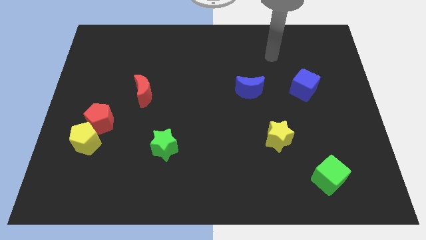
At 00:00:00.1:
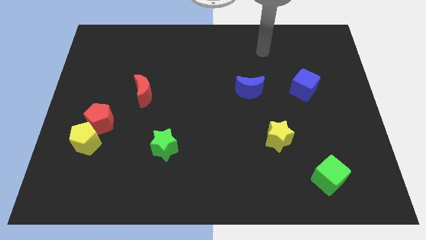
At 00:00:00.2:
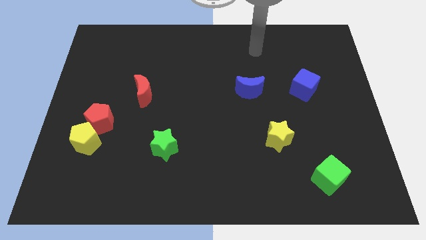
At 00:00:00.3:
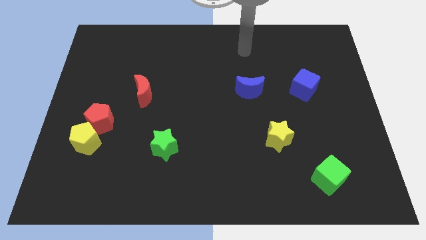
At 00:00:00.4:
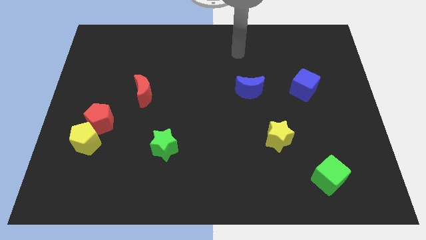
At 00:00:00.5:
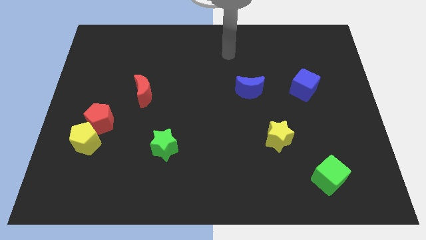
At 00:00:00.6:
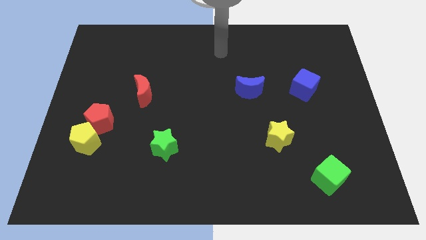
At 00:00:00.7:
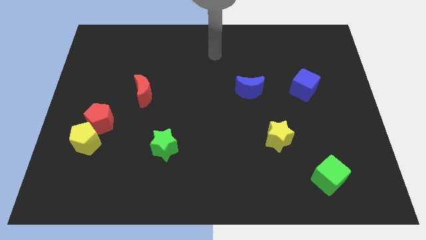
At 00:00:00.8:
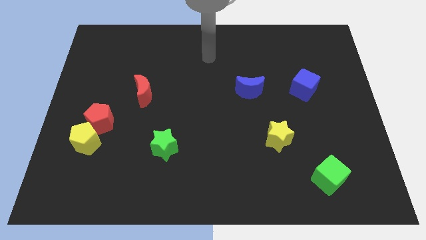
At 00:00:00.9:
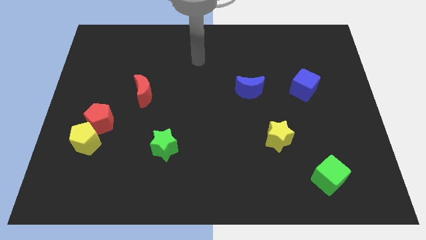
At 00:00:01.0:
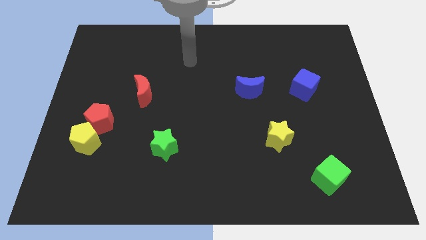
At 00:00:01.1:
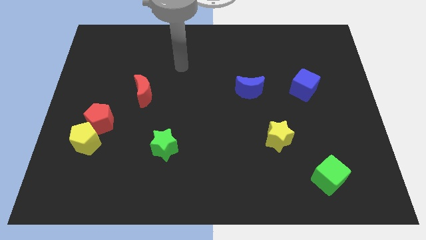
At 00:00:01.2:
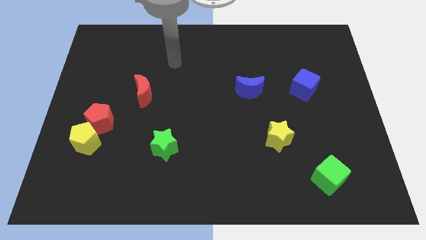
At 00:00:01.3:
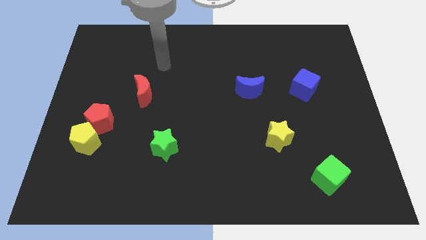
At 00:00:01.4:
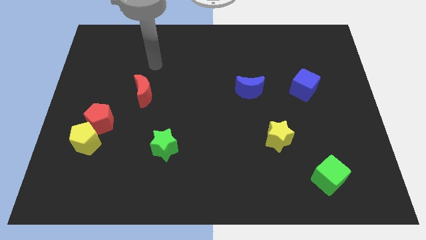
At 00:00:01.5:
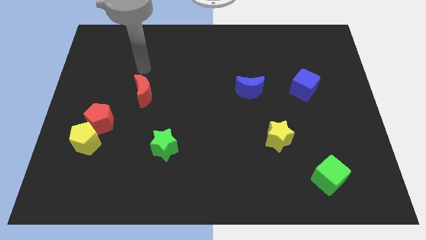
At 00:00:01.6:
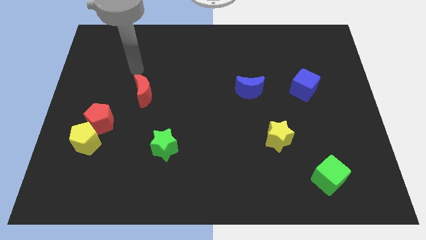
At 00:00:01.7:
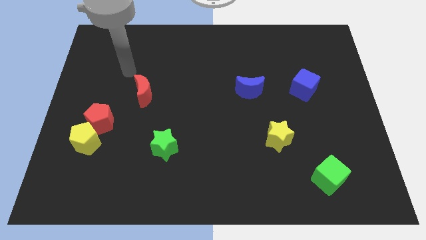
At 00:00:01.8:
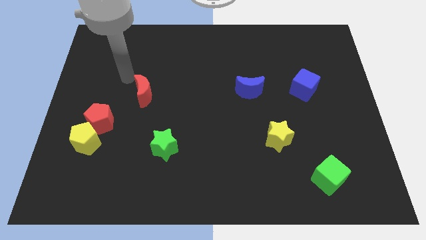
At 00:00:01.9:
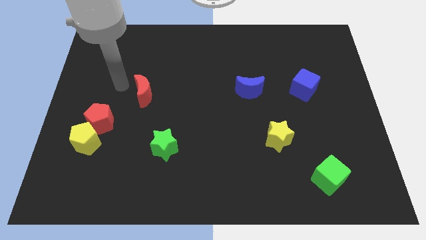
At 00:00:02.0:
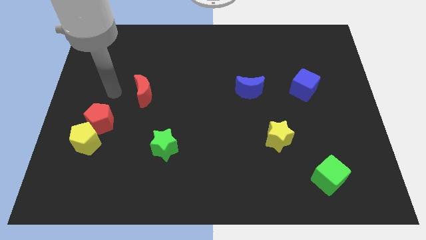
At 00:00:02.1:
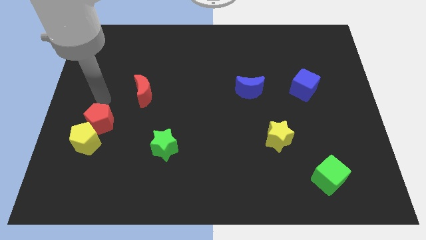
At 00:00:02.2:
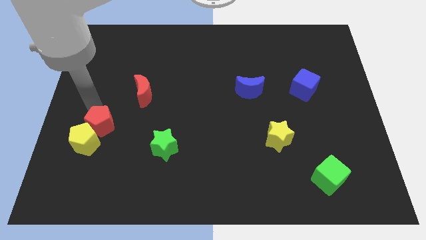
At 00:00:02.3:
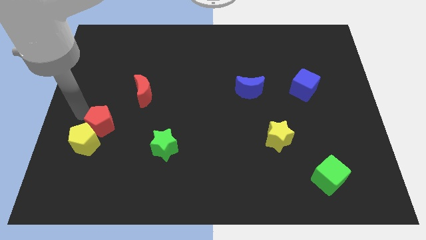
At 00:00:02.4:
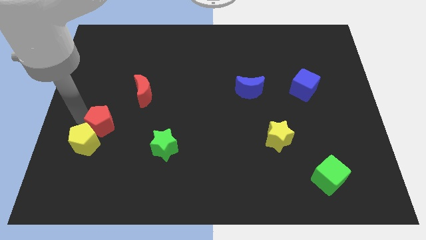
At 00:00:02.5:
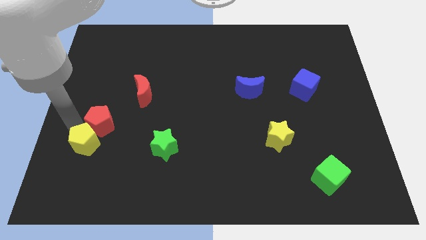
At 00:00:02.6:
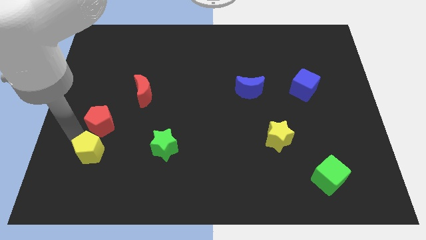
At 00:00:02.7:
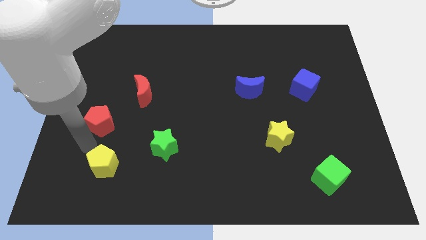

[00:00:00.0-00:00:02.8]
pull the red pentagon apart from the yellow pentagon

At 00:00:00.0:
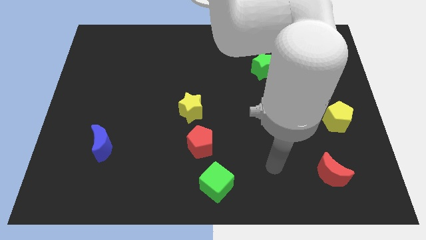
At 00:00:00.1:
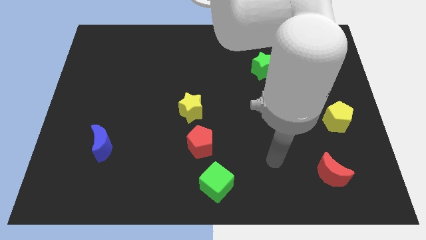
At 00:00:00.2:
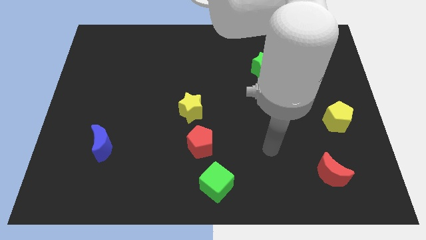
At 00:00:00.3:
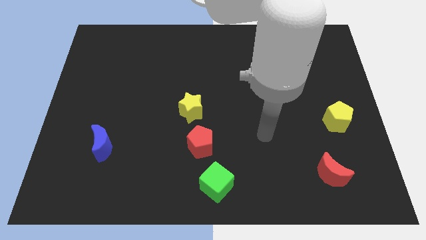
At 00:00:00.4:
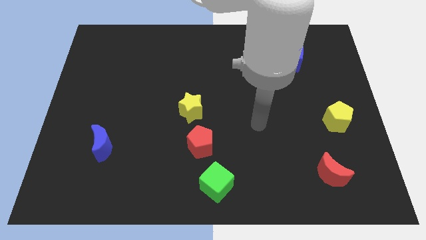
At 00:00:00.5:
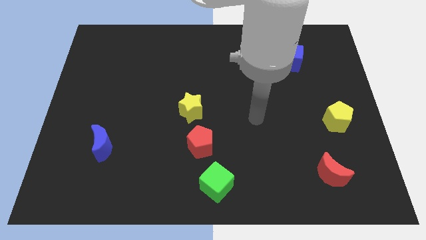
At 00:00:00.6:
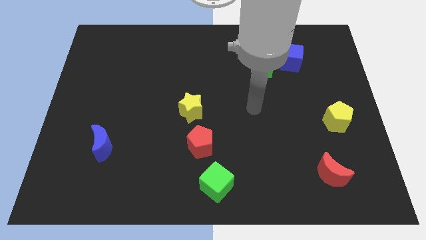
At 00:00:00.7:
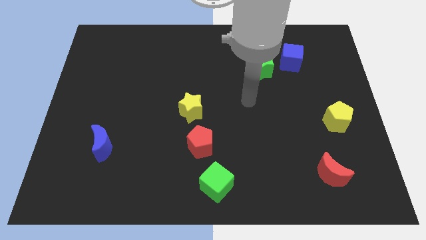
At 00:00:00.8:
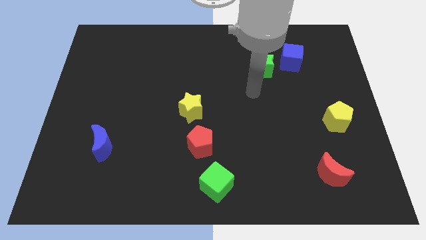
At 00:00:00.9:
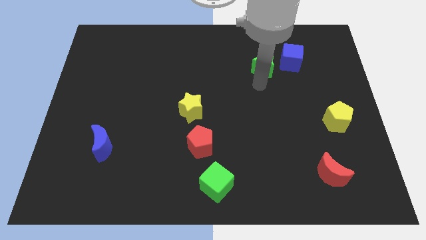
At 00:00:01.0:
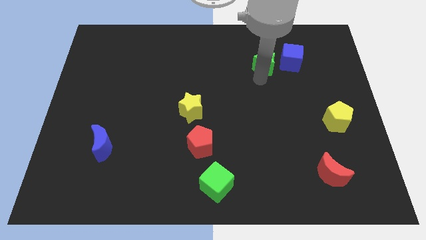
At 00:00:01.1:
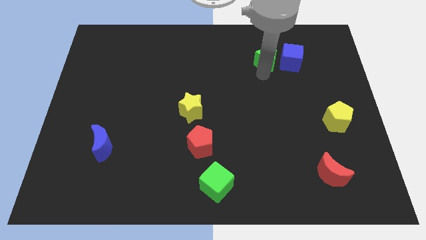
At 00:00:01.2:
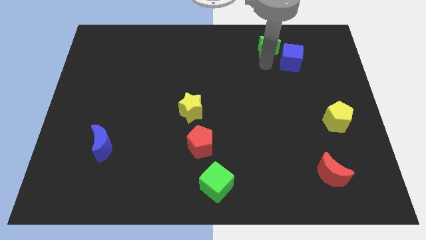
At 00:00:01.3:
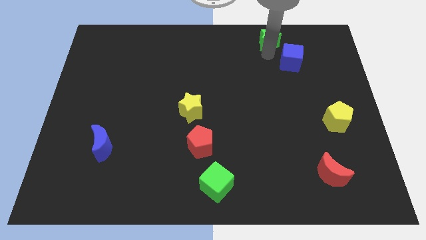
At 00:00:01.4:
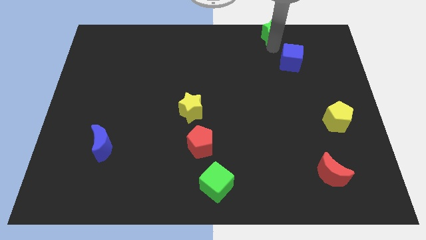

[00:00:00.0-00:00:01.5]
pull the blue cube apart from the green star

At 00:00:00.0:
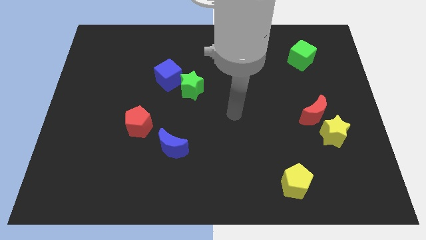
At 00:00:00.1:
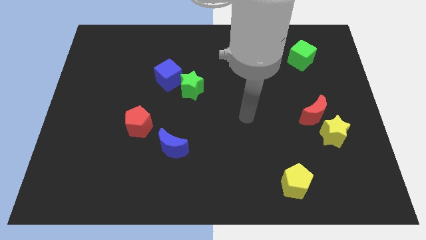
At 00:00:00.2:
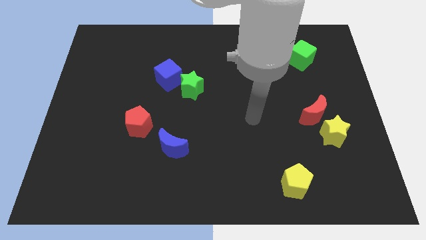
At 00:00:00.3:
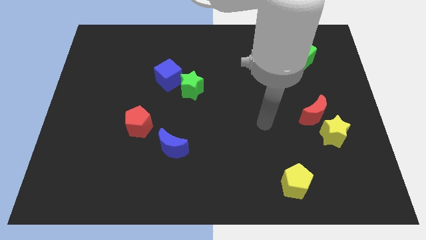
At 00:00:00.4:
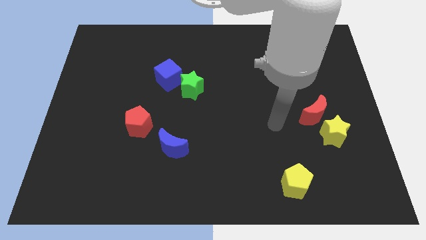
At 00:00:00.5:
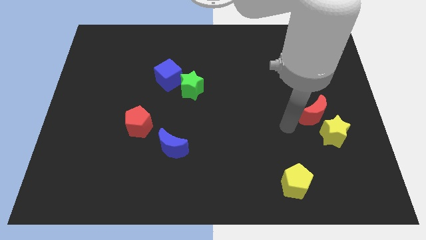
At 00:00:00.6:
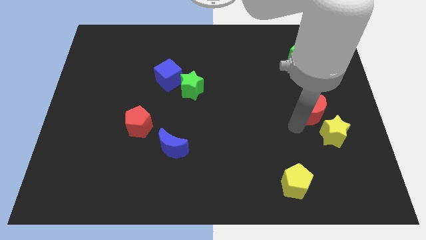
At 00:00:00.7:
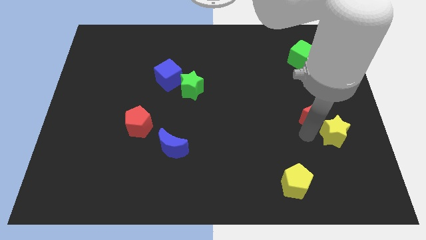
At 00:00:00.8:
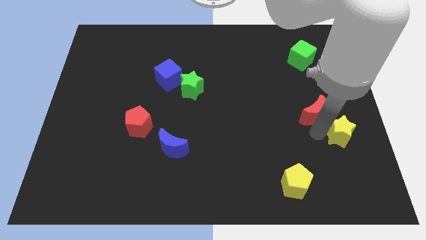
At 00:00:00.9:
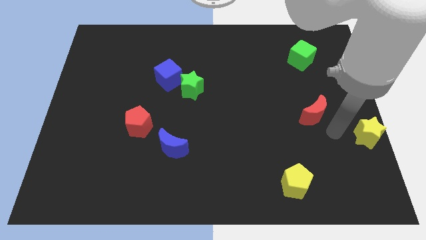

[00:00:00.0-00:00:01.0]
separate the red moon from the yellow star

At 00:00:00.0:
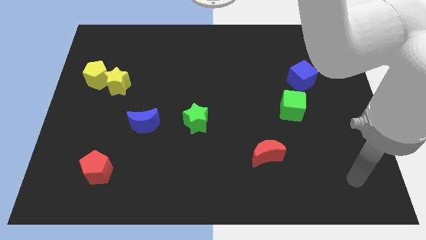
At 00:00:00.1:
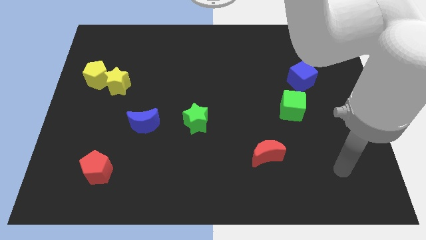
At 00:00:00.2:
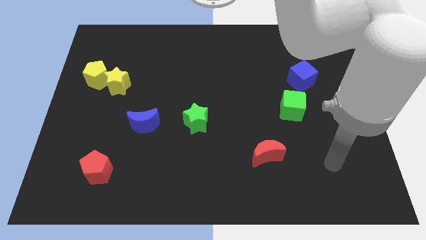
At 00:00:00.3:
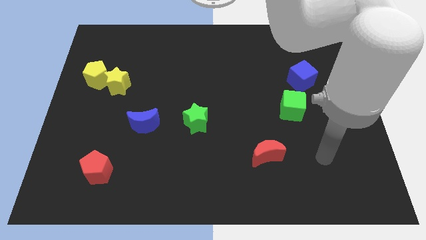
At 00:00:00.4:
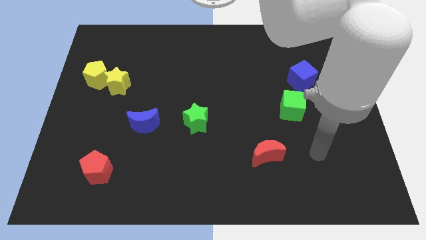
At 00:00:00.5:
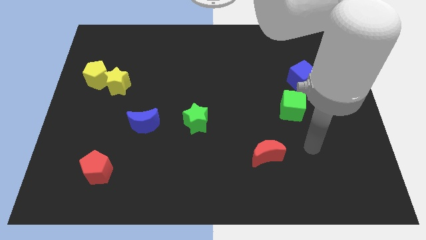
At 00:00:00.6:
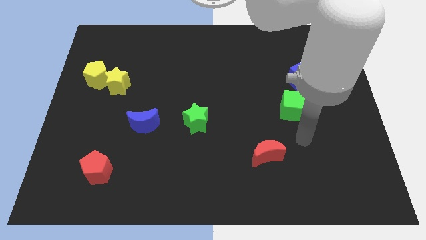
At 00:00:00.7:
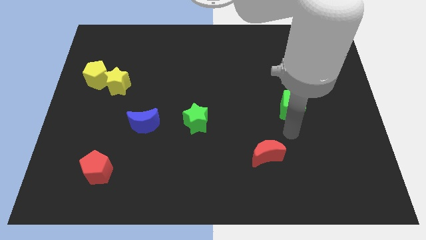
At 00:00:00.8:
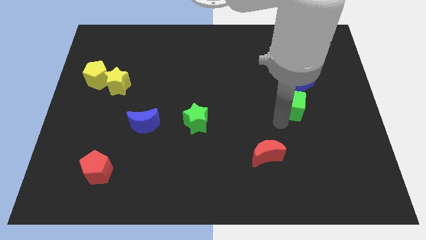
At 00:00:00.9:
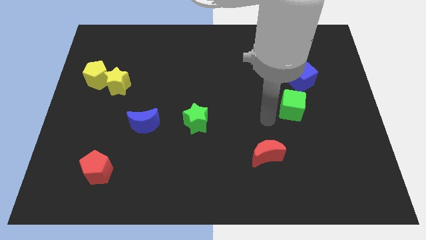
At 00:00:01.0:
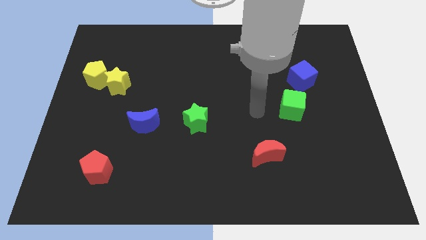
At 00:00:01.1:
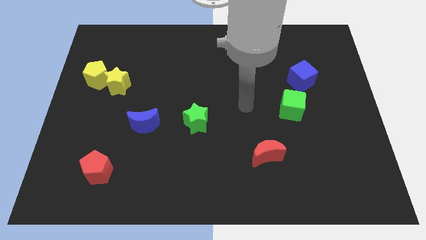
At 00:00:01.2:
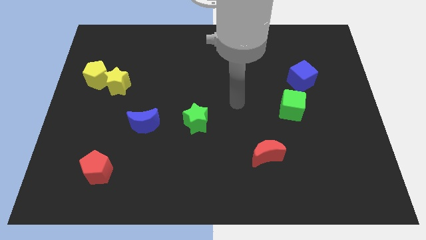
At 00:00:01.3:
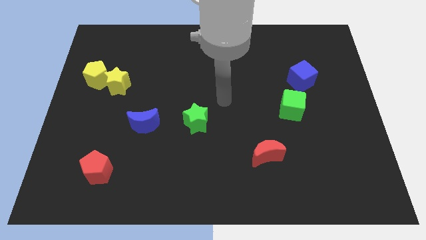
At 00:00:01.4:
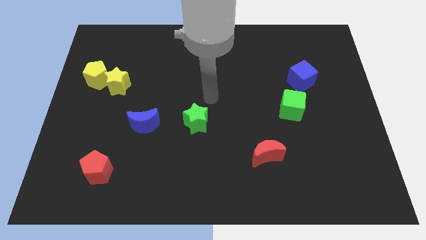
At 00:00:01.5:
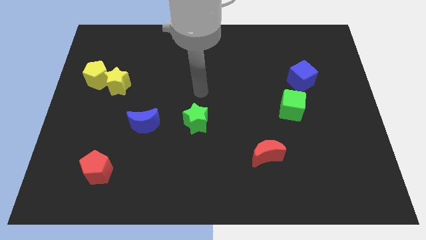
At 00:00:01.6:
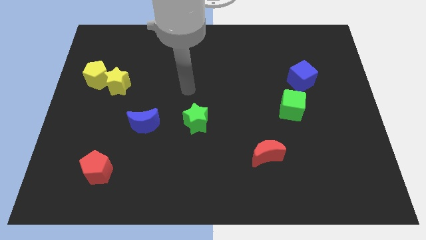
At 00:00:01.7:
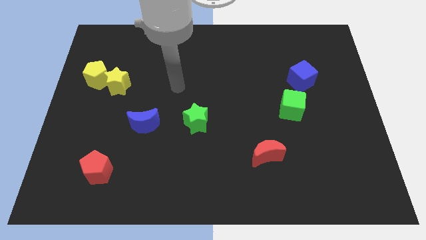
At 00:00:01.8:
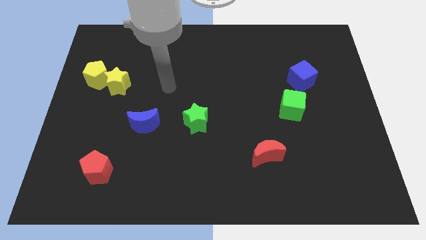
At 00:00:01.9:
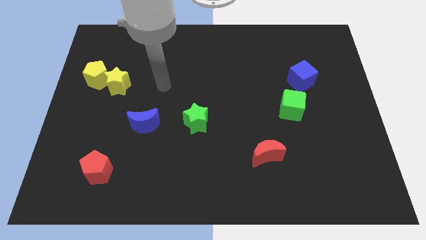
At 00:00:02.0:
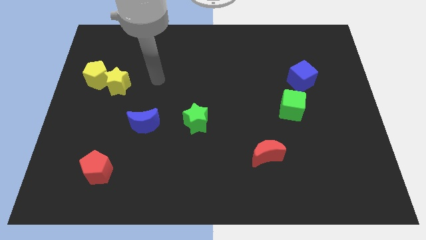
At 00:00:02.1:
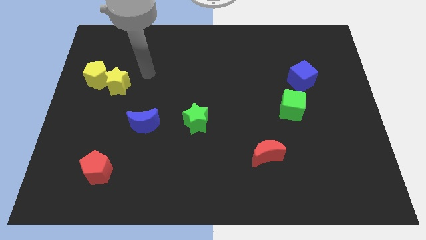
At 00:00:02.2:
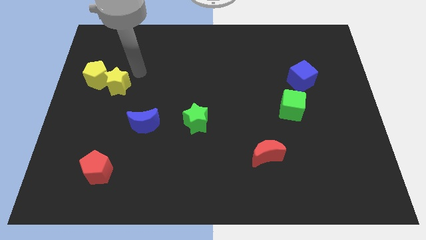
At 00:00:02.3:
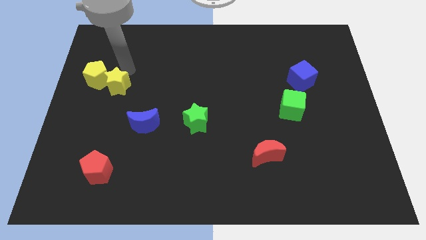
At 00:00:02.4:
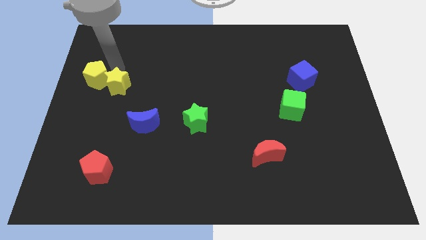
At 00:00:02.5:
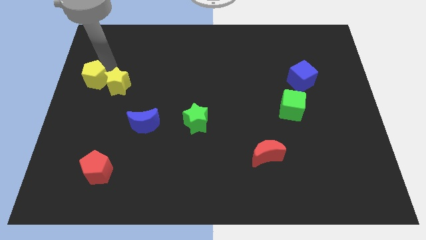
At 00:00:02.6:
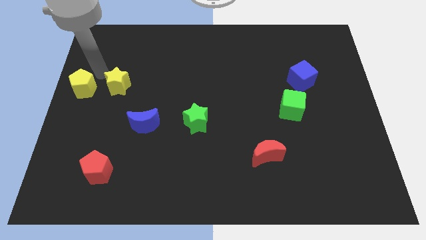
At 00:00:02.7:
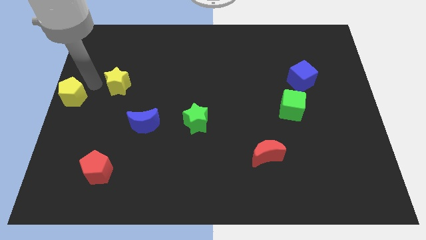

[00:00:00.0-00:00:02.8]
separate the yellow star from the yellow pentagon

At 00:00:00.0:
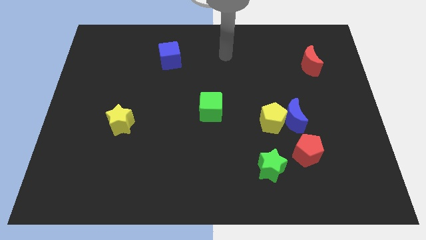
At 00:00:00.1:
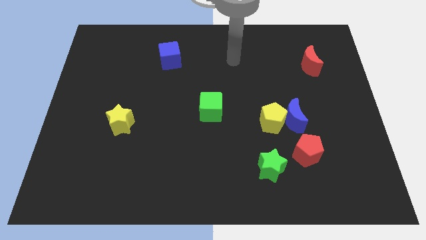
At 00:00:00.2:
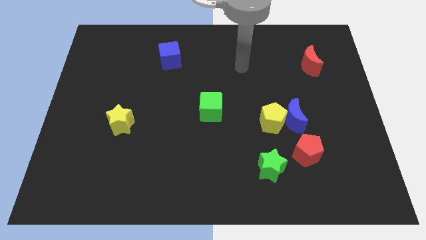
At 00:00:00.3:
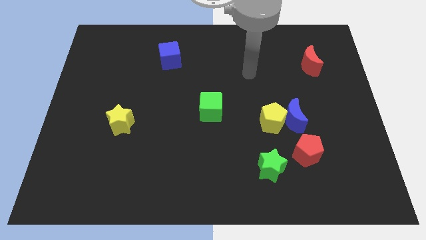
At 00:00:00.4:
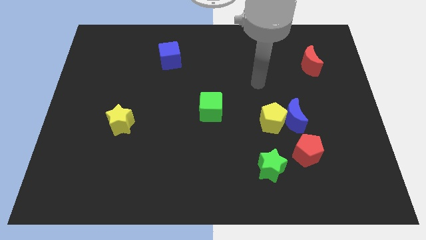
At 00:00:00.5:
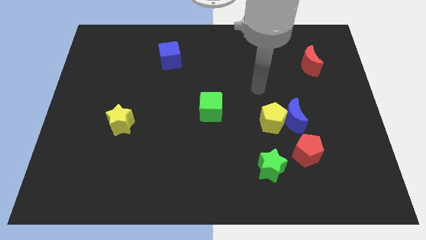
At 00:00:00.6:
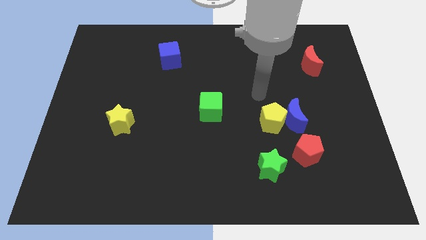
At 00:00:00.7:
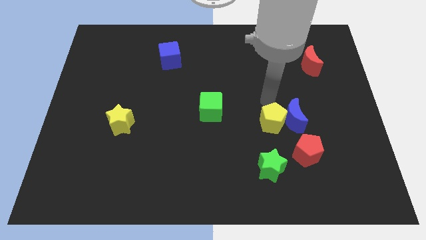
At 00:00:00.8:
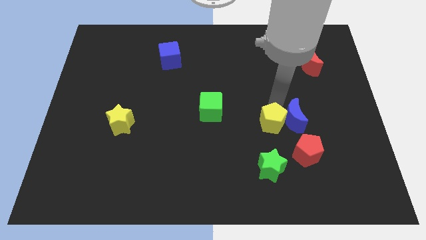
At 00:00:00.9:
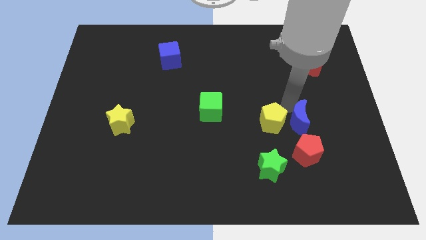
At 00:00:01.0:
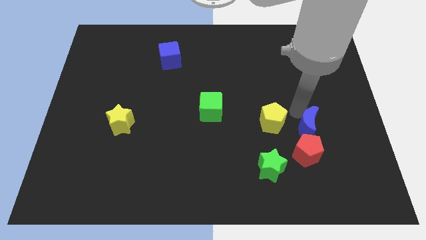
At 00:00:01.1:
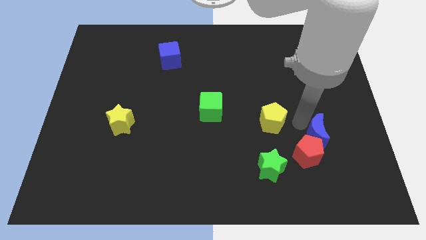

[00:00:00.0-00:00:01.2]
move the yellow pentagon away from the blue moon
